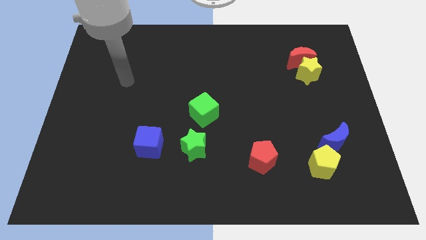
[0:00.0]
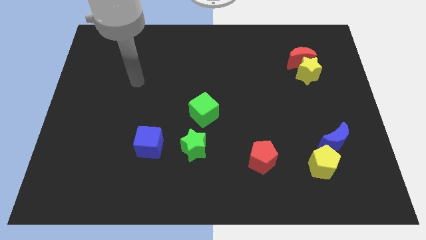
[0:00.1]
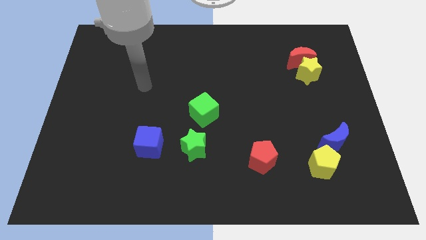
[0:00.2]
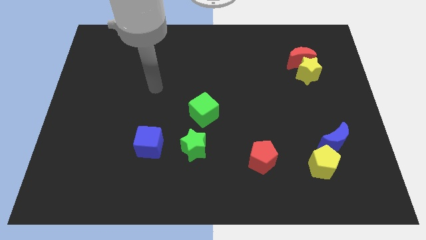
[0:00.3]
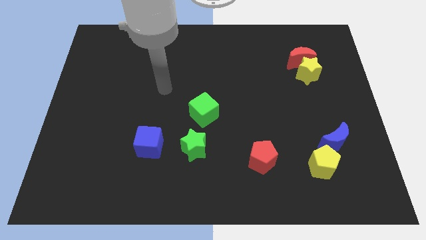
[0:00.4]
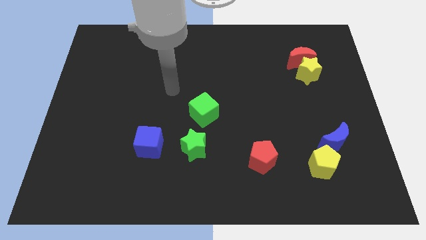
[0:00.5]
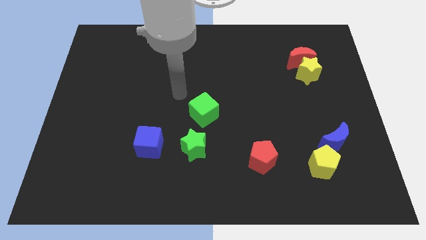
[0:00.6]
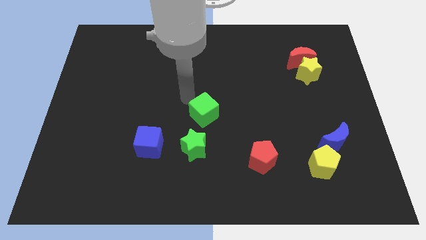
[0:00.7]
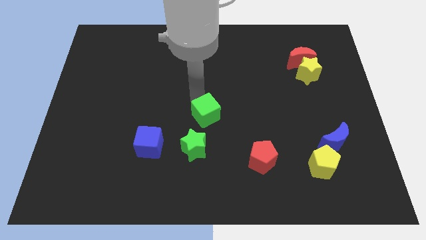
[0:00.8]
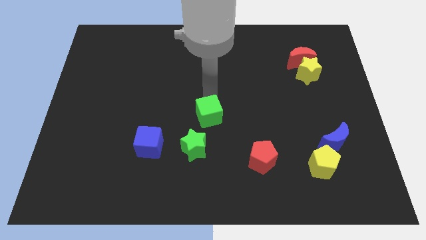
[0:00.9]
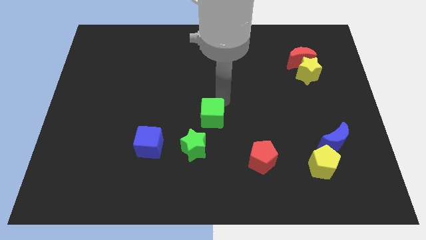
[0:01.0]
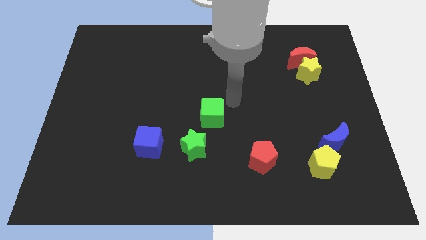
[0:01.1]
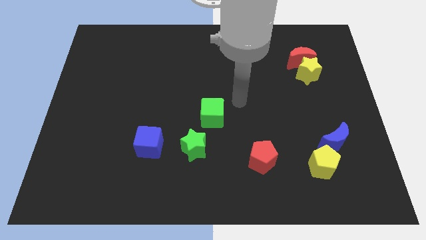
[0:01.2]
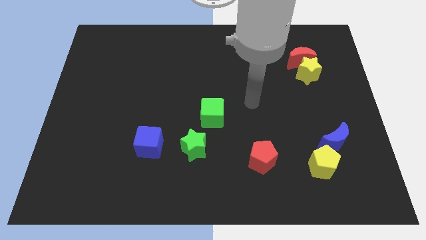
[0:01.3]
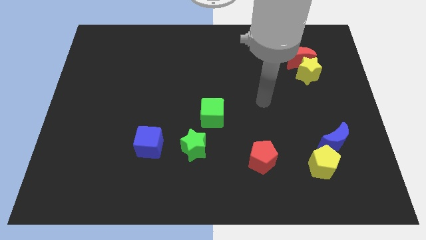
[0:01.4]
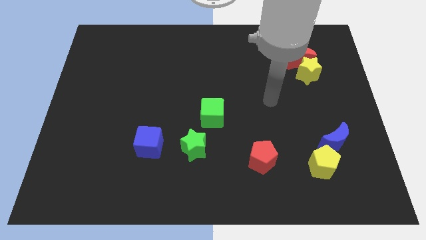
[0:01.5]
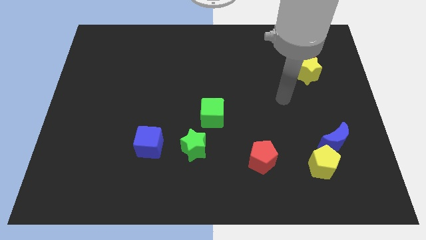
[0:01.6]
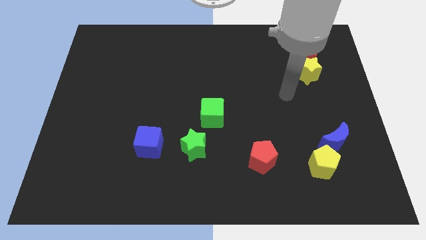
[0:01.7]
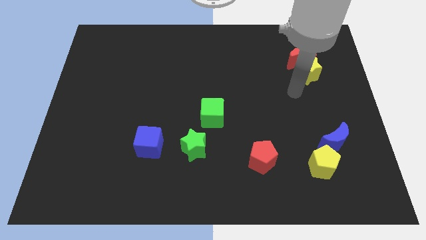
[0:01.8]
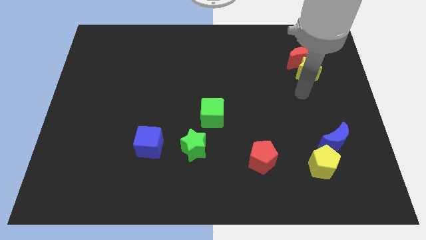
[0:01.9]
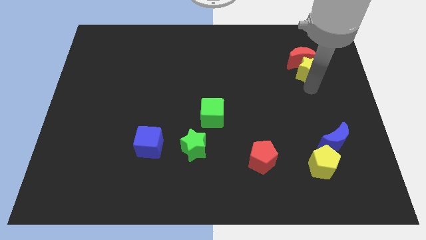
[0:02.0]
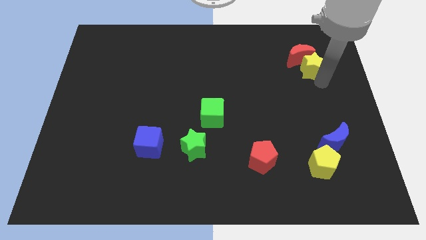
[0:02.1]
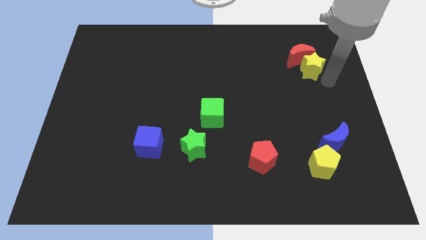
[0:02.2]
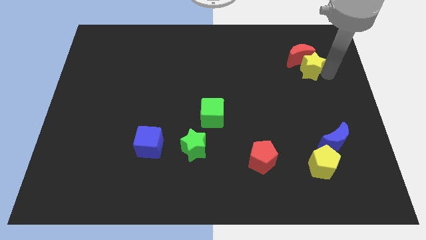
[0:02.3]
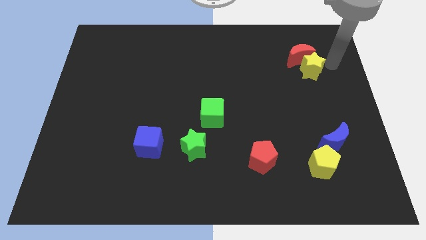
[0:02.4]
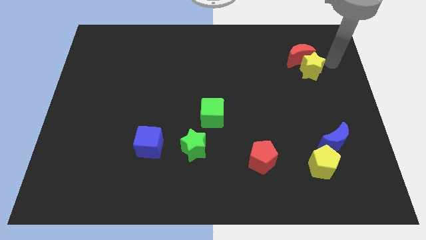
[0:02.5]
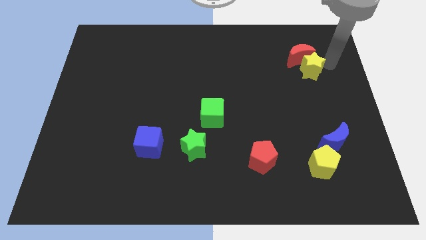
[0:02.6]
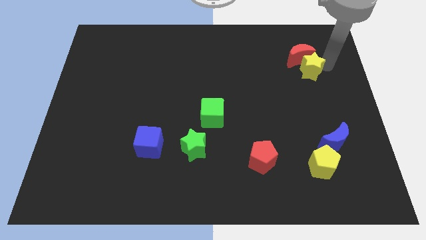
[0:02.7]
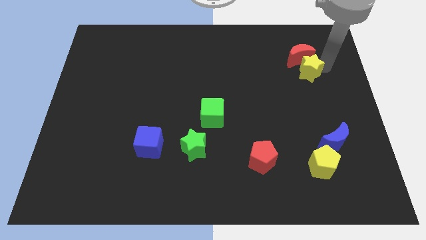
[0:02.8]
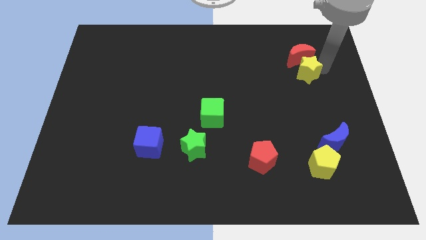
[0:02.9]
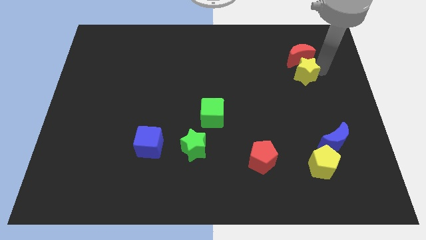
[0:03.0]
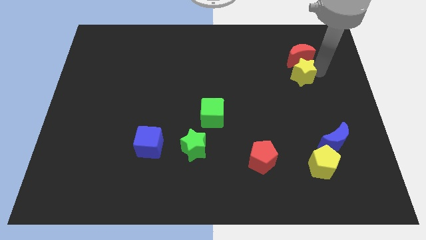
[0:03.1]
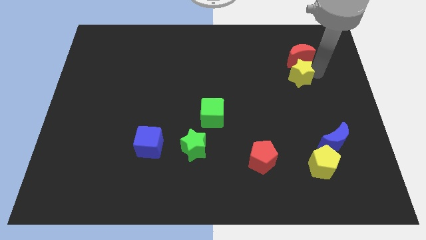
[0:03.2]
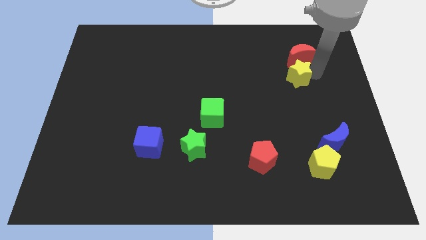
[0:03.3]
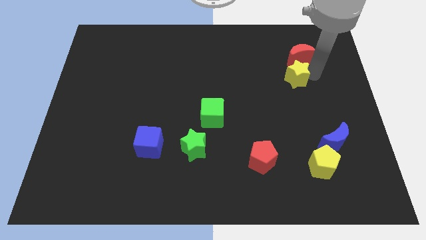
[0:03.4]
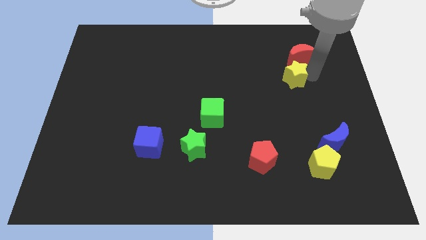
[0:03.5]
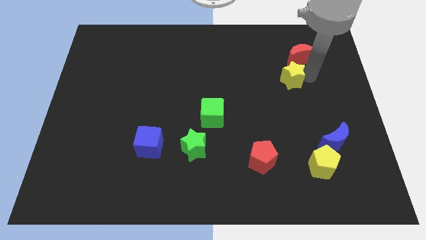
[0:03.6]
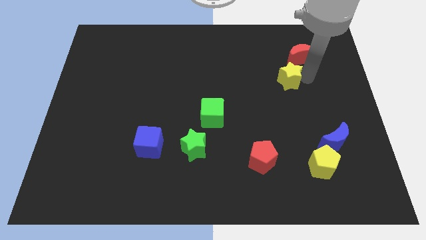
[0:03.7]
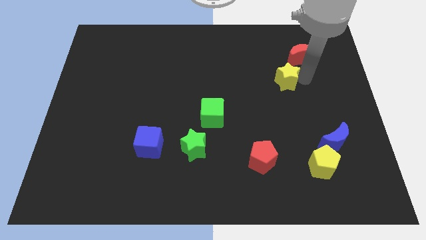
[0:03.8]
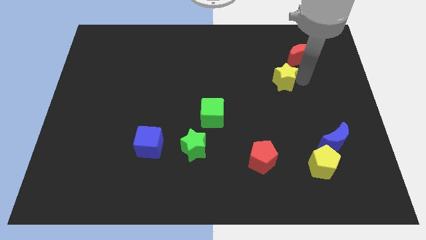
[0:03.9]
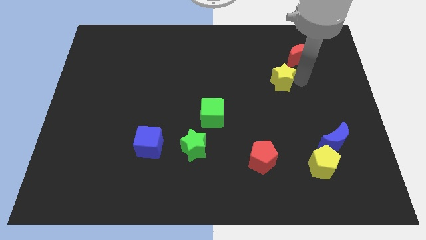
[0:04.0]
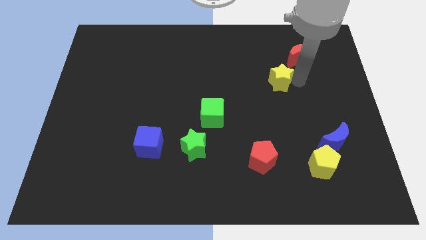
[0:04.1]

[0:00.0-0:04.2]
slide the yellow star a little to the left

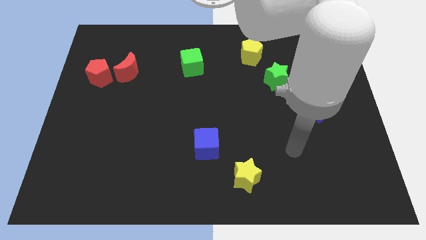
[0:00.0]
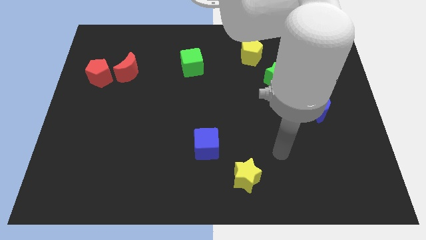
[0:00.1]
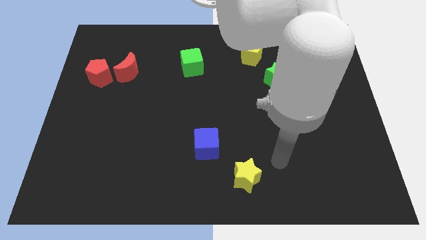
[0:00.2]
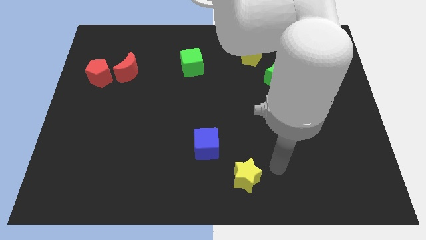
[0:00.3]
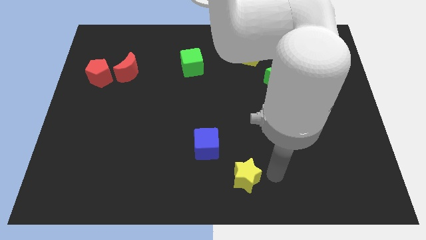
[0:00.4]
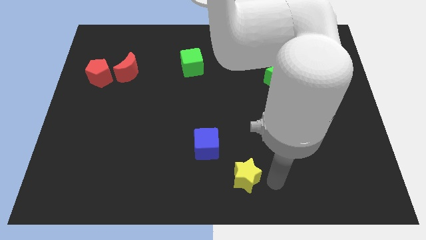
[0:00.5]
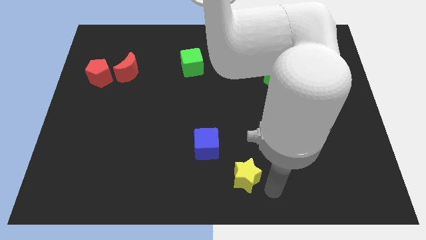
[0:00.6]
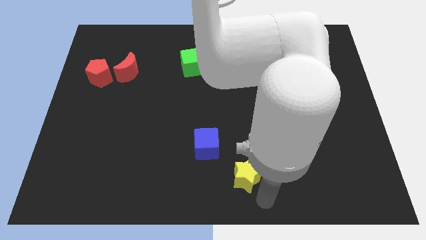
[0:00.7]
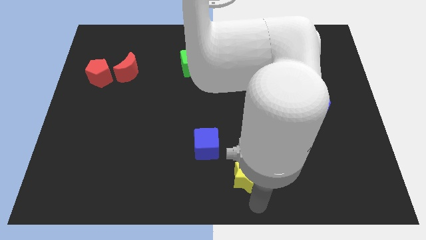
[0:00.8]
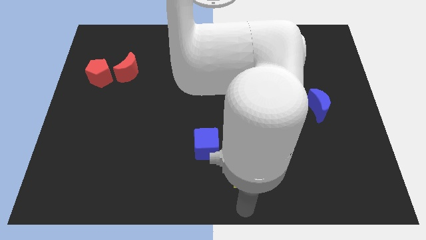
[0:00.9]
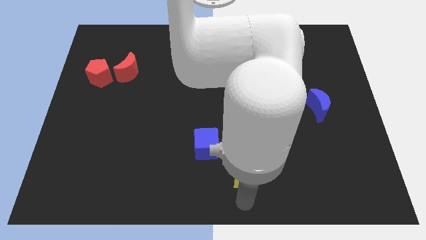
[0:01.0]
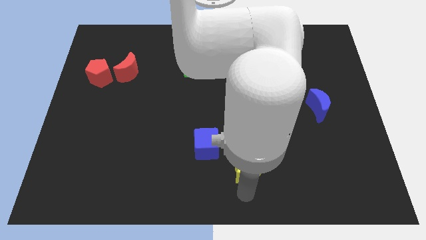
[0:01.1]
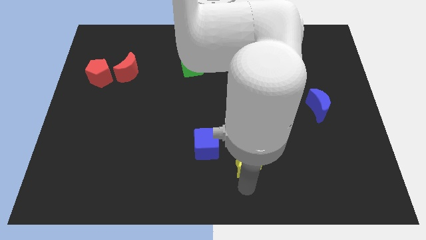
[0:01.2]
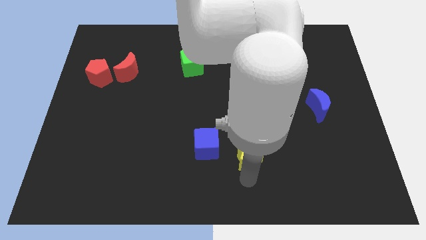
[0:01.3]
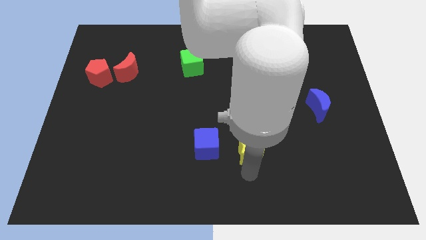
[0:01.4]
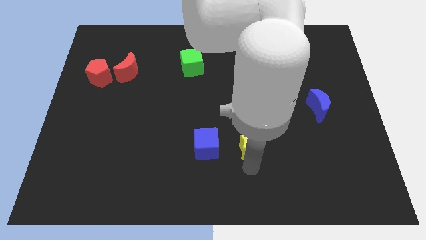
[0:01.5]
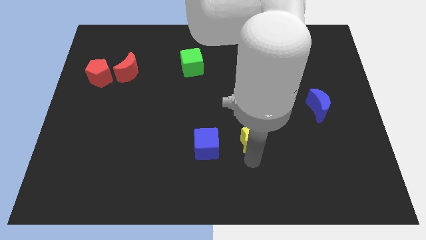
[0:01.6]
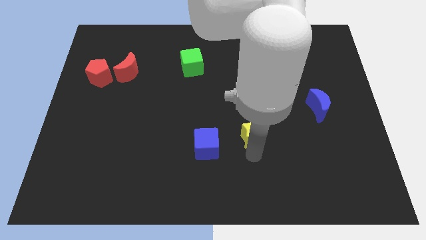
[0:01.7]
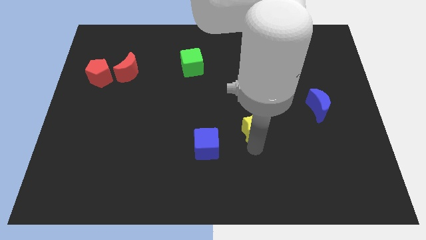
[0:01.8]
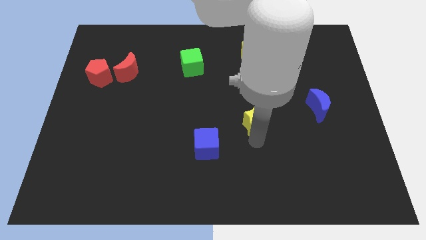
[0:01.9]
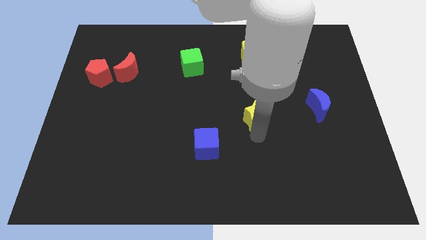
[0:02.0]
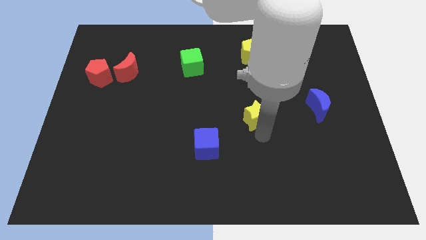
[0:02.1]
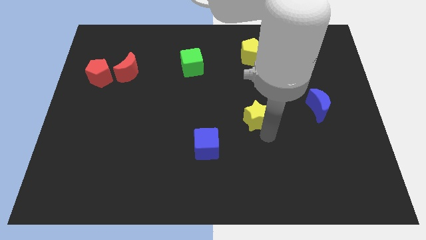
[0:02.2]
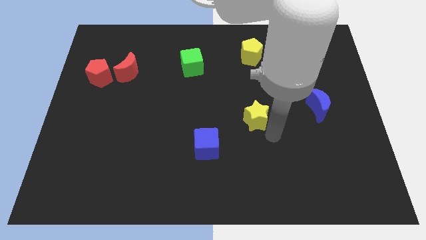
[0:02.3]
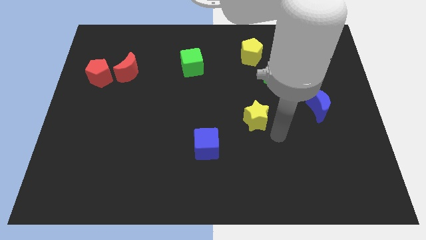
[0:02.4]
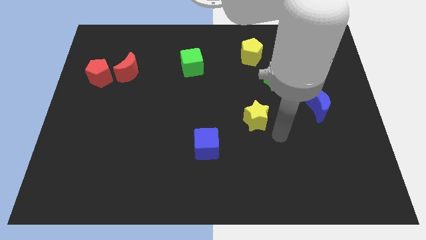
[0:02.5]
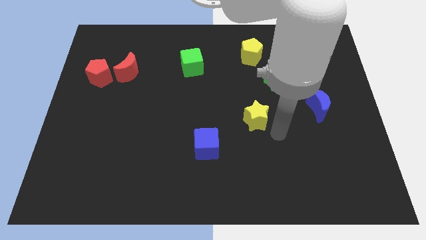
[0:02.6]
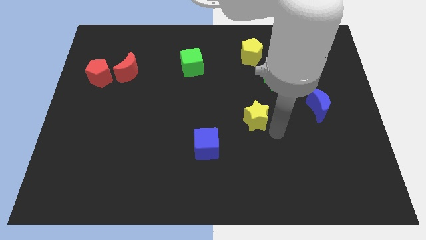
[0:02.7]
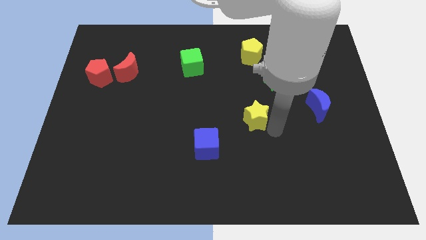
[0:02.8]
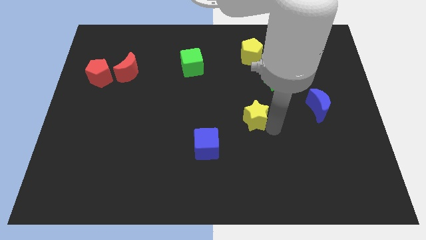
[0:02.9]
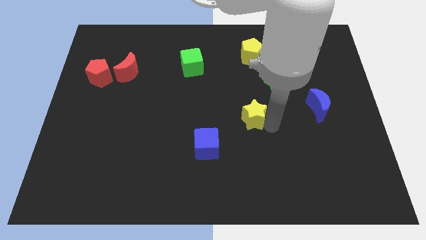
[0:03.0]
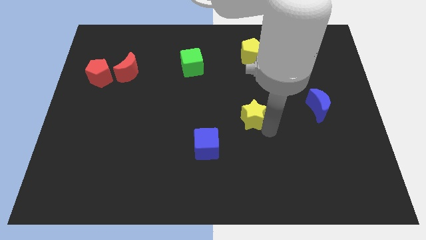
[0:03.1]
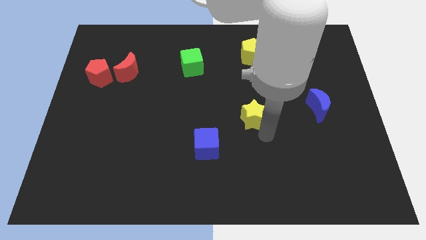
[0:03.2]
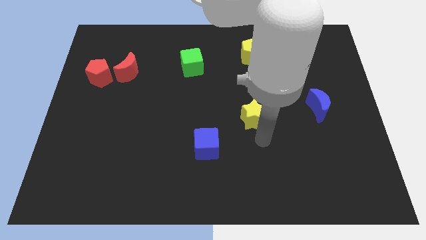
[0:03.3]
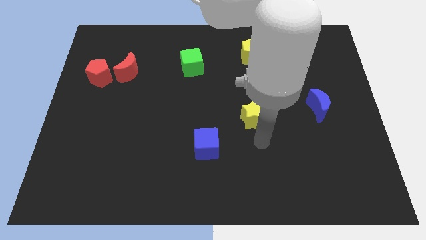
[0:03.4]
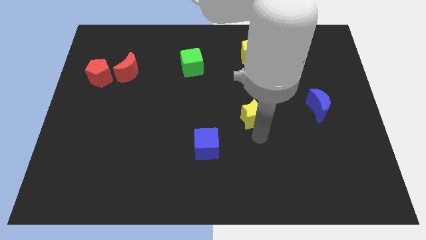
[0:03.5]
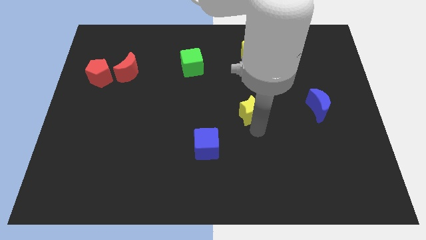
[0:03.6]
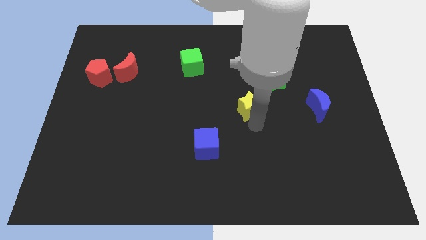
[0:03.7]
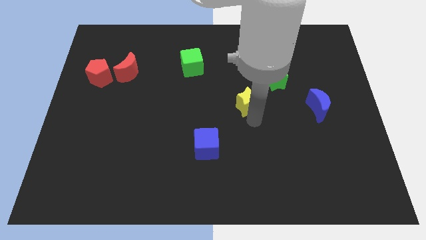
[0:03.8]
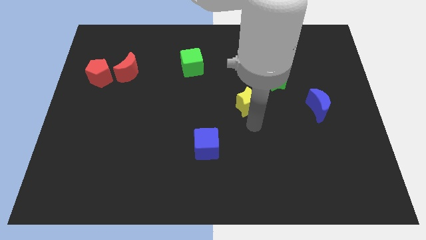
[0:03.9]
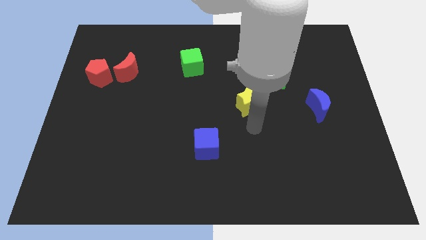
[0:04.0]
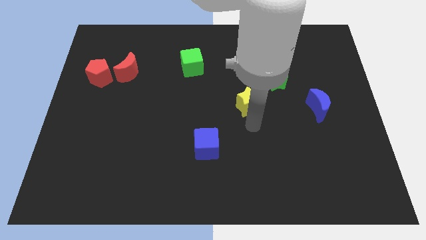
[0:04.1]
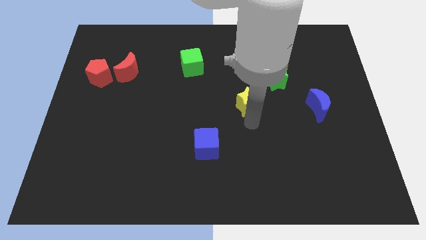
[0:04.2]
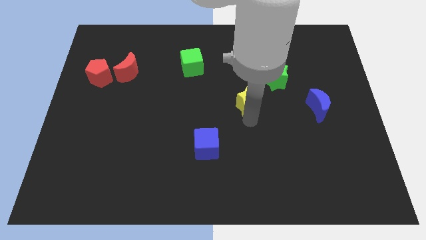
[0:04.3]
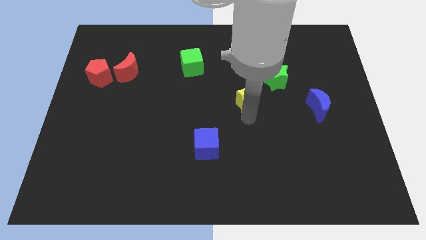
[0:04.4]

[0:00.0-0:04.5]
push the yellow star up
